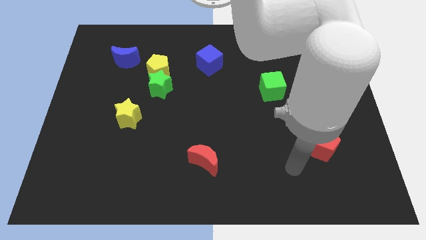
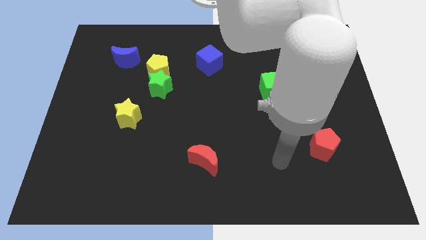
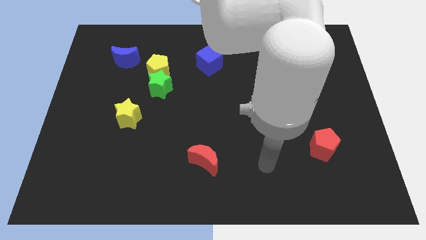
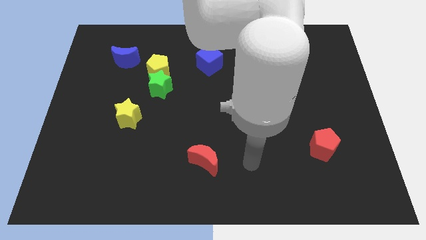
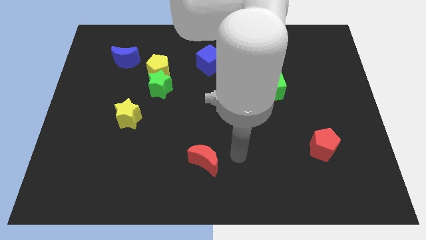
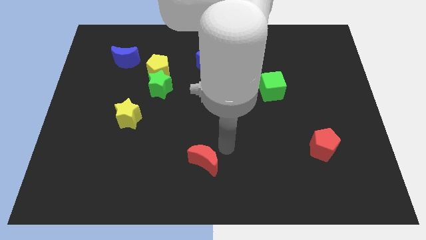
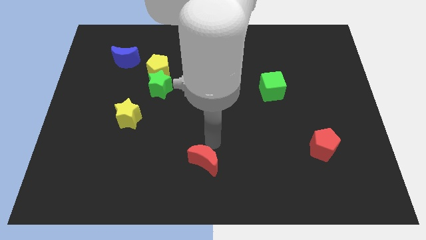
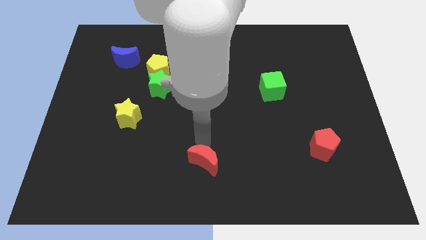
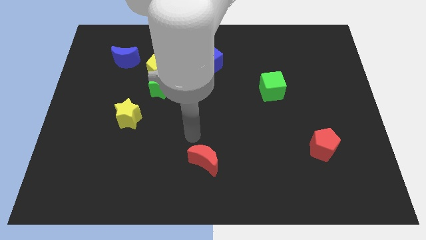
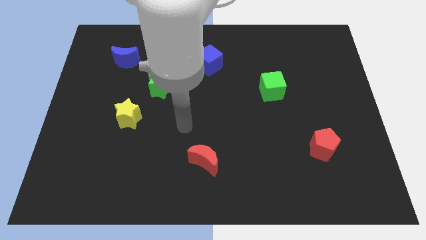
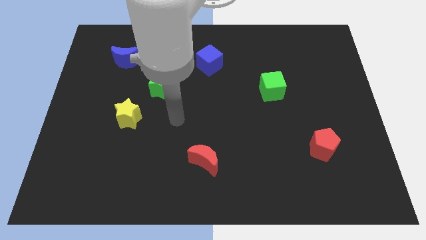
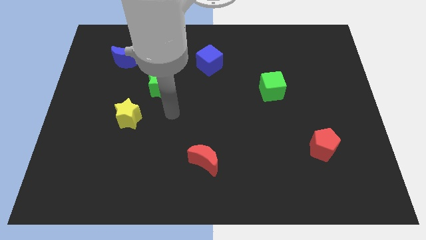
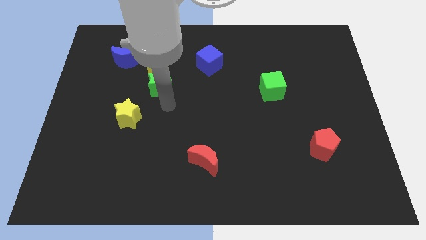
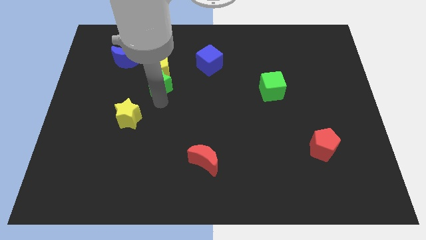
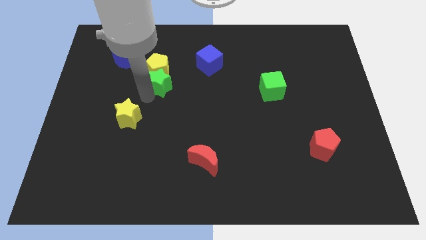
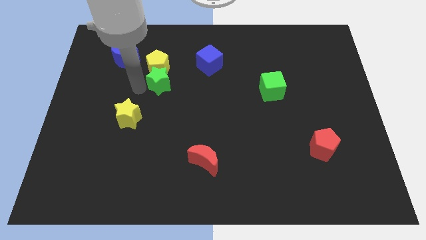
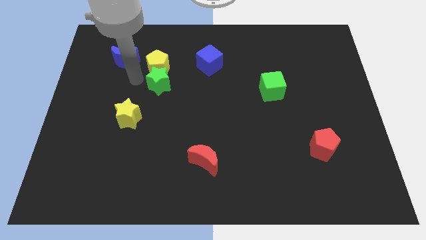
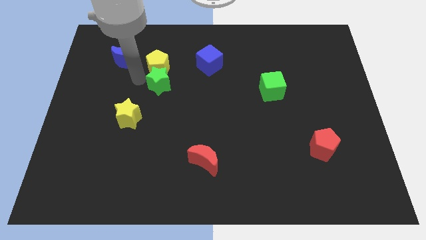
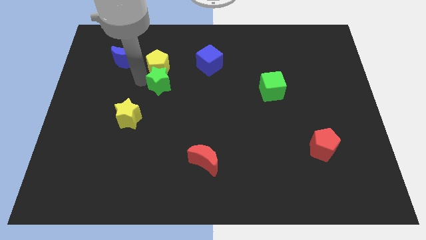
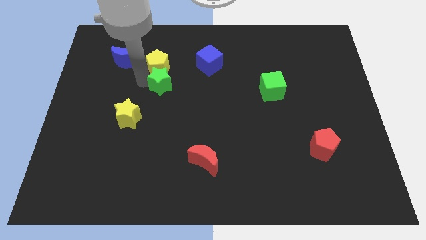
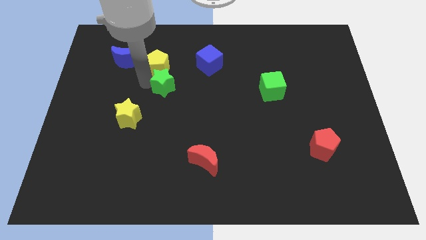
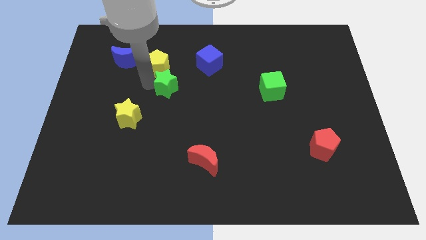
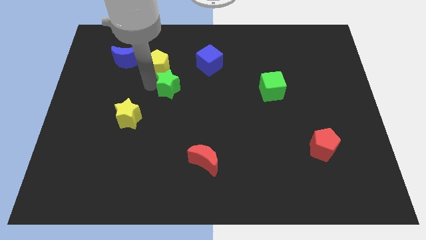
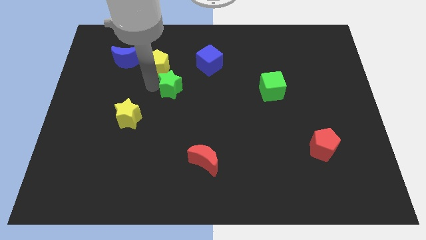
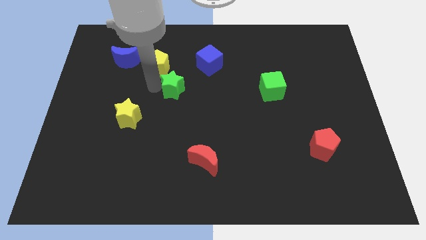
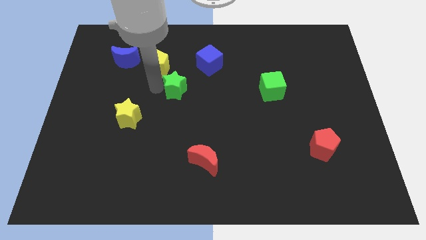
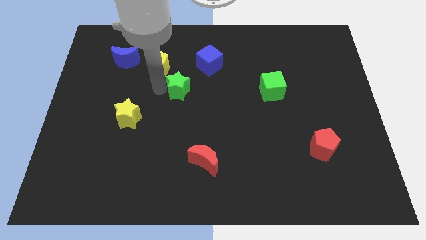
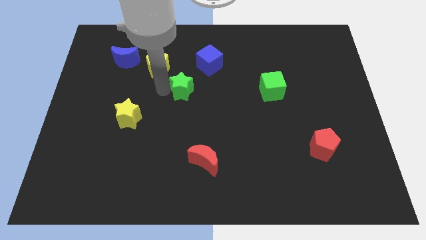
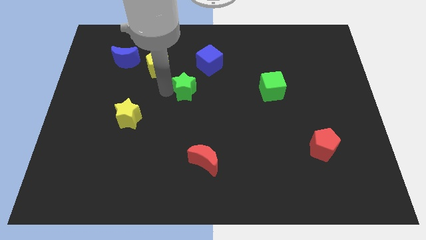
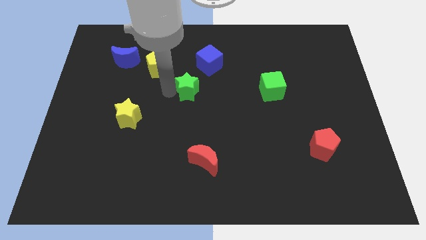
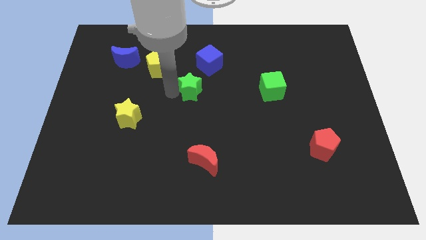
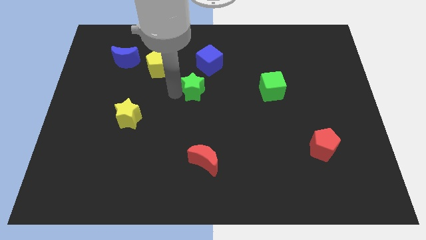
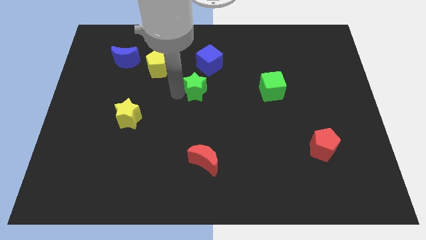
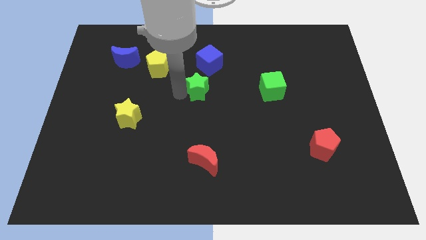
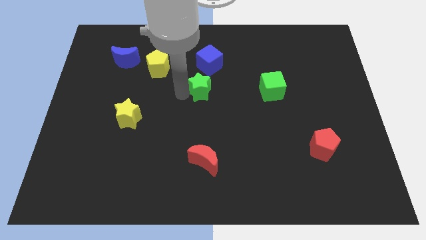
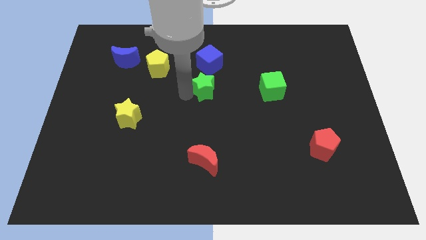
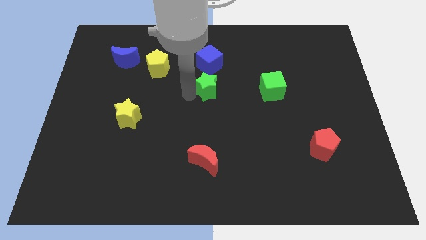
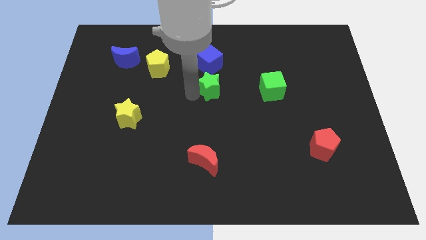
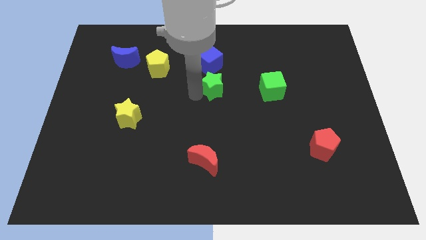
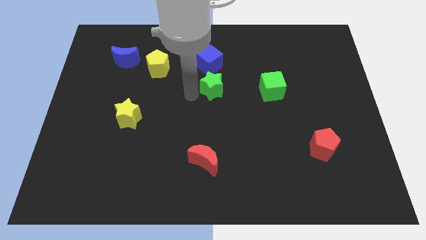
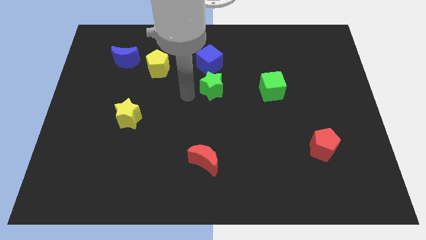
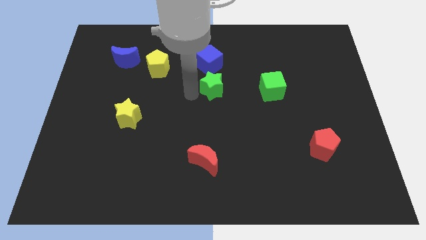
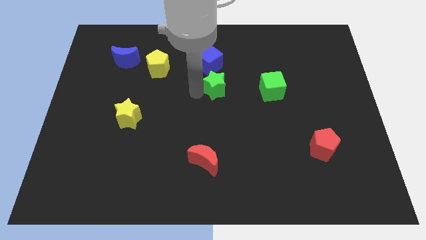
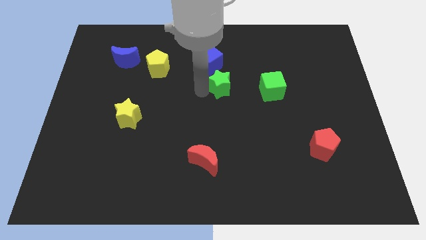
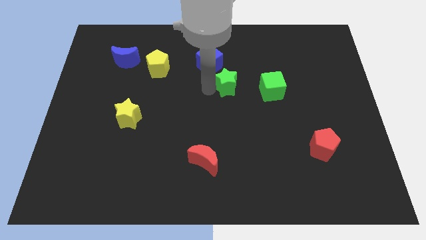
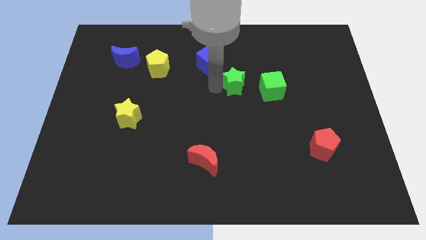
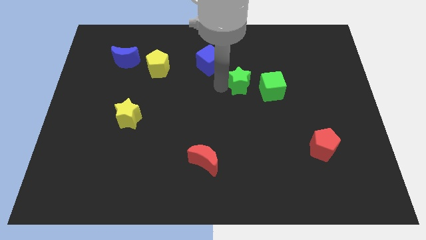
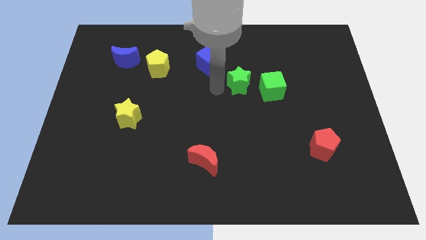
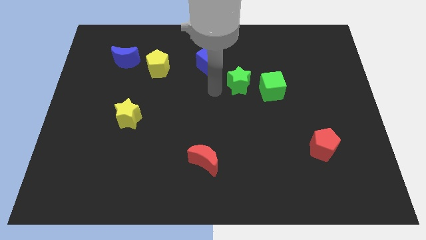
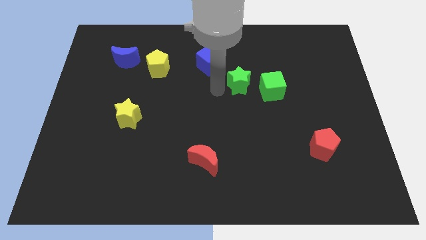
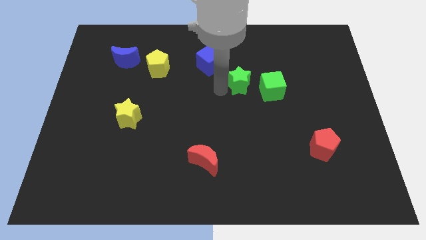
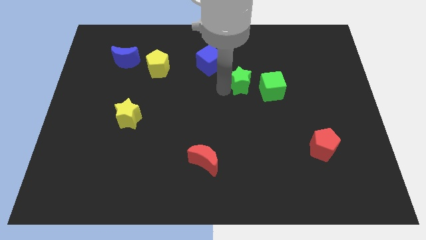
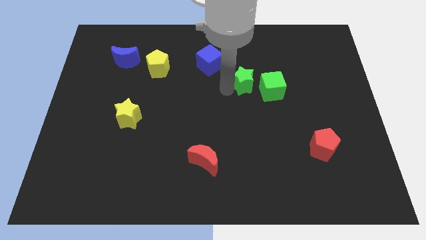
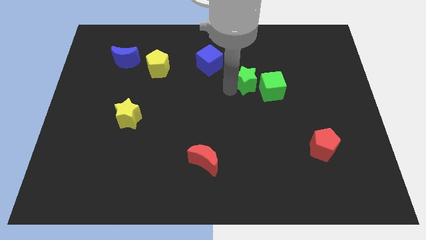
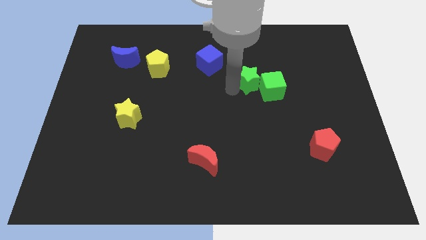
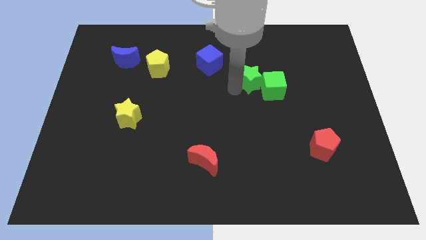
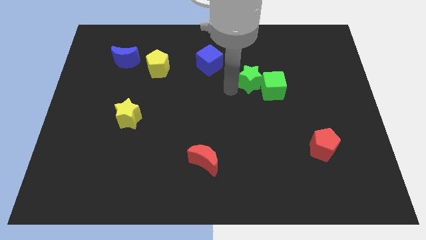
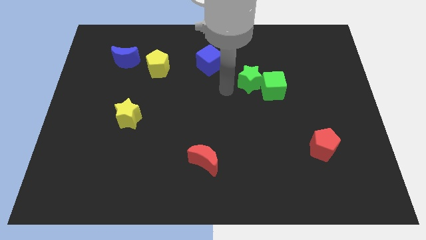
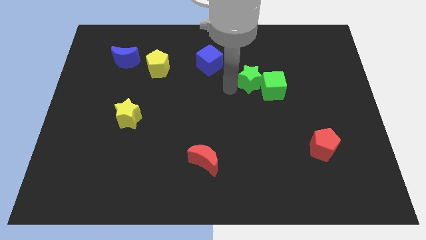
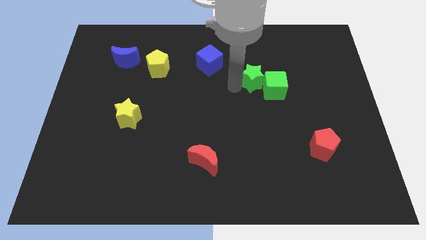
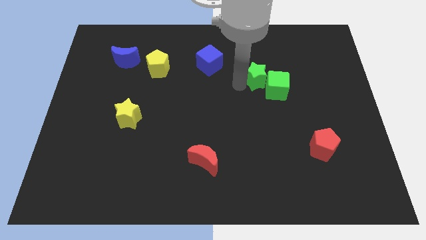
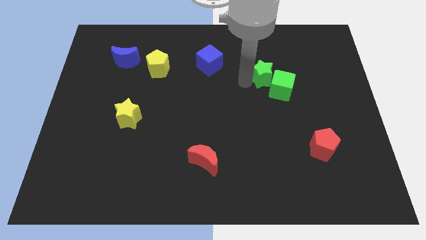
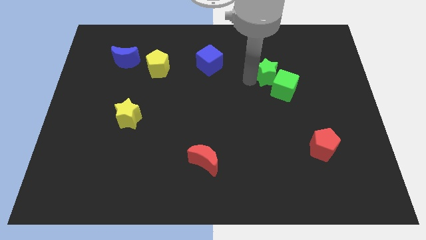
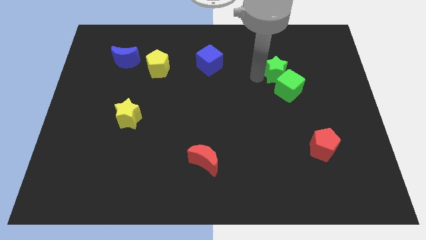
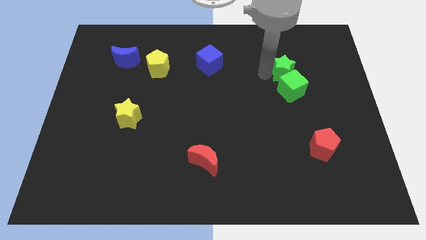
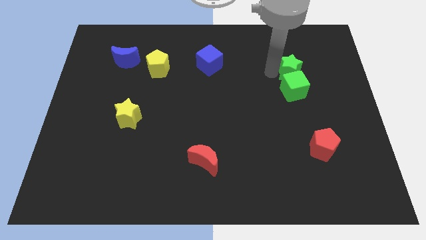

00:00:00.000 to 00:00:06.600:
move the green star to the top right side of the green cube

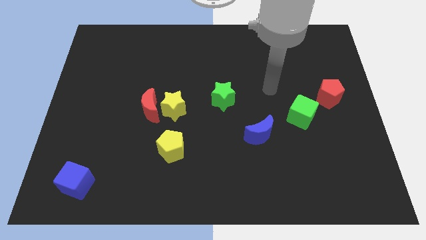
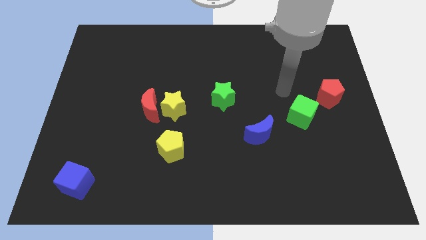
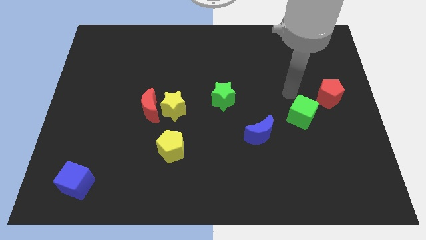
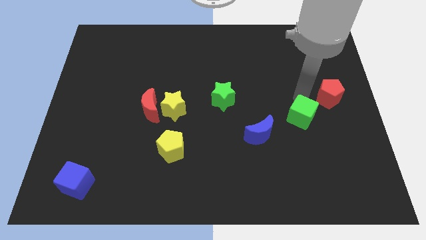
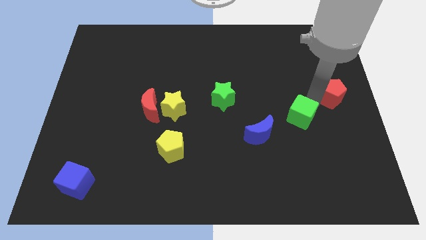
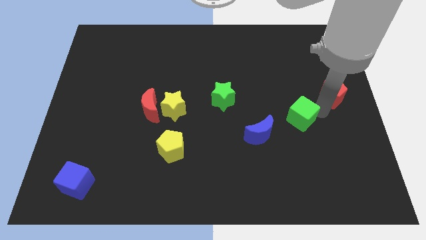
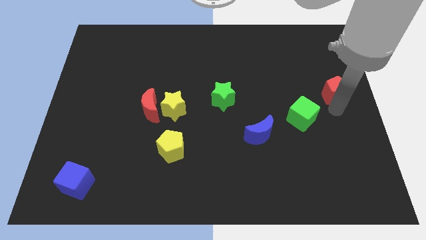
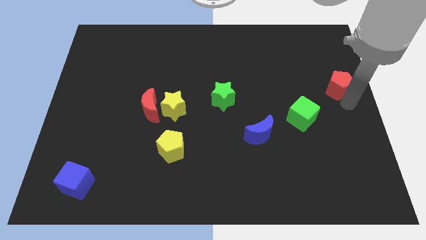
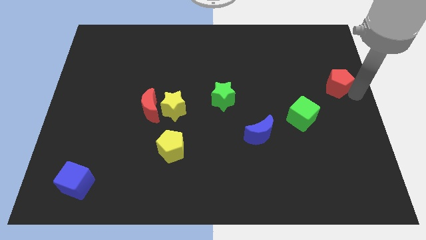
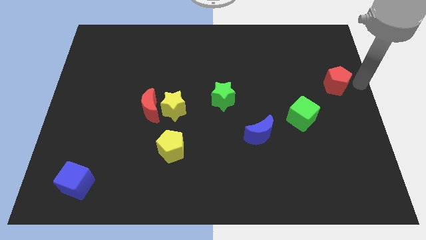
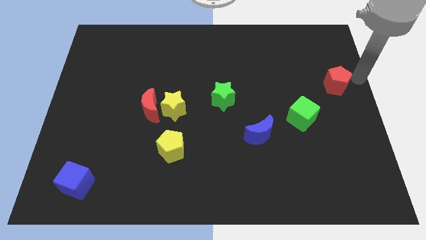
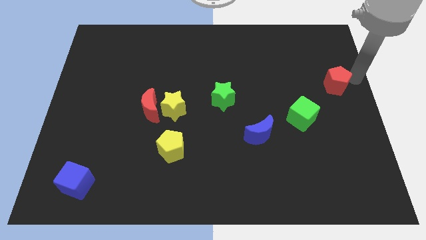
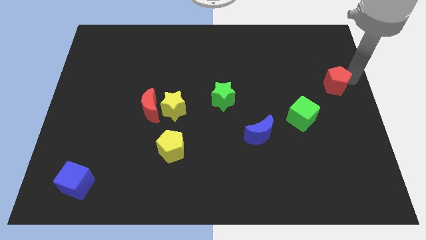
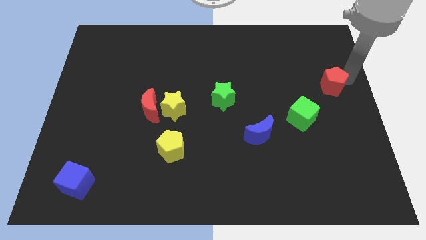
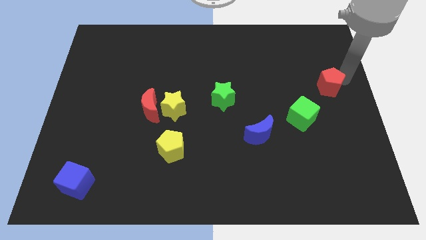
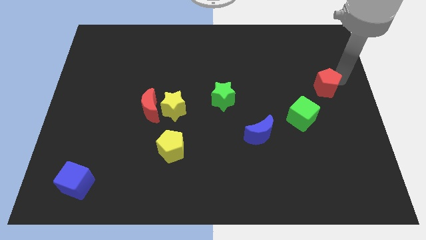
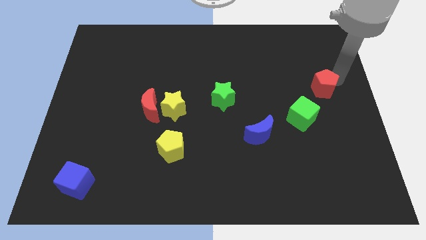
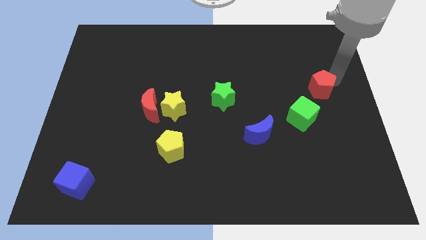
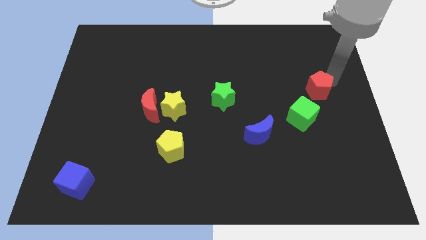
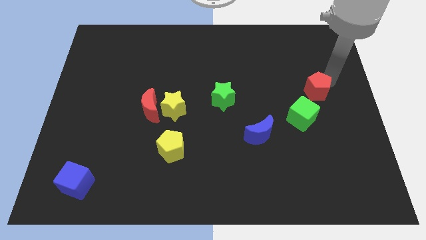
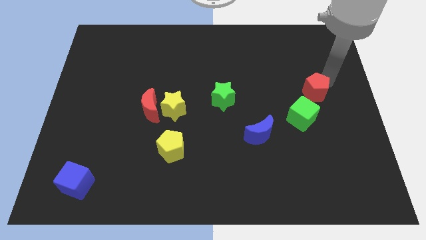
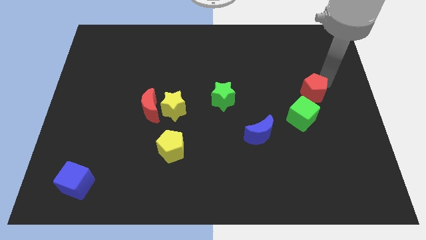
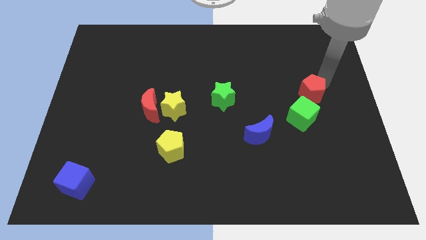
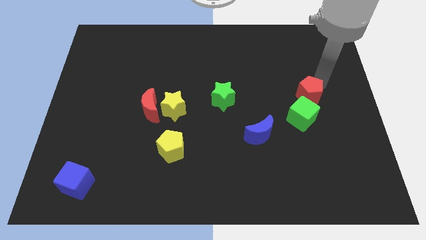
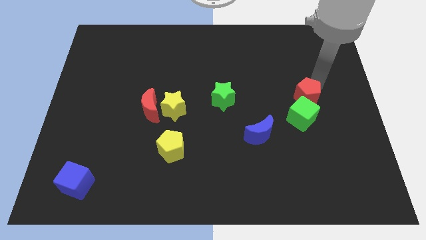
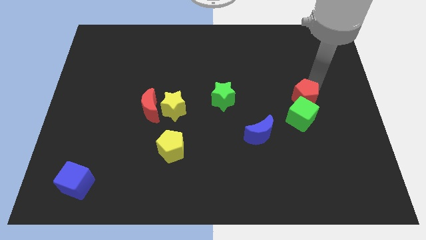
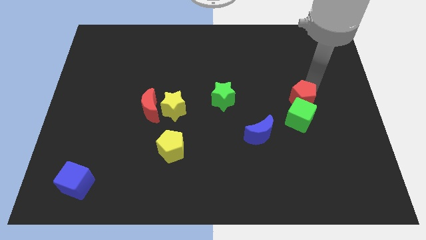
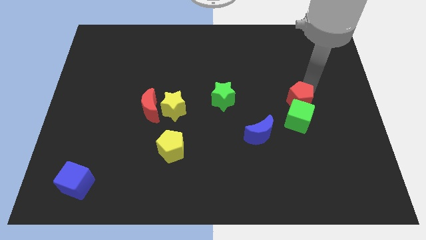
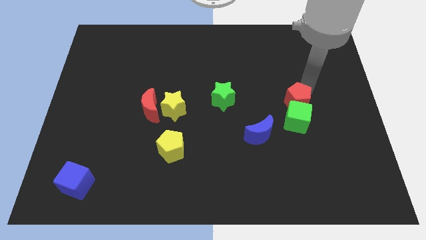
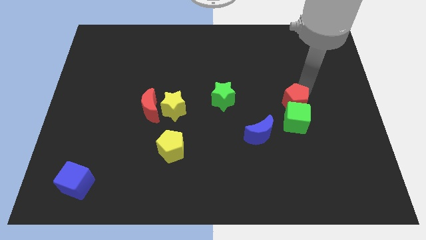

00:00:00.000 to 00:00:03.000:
push the red pentagon to the top right of the blue moon
